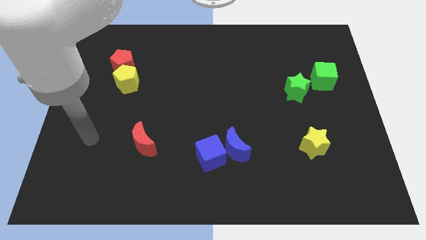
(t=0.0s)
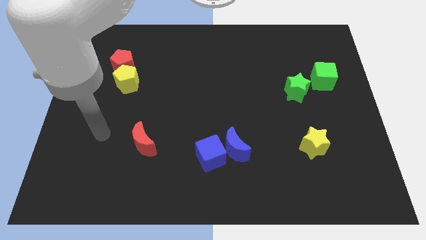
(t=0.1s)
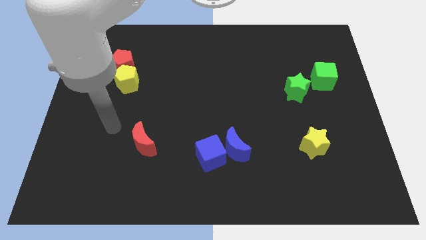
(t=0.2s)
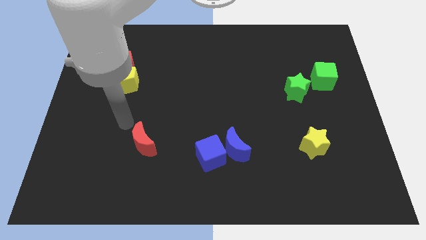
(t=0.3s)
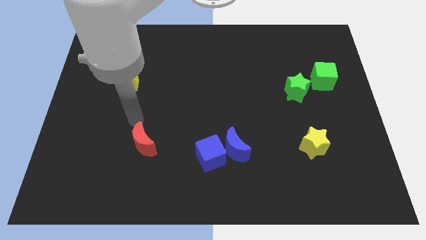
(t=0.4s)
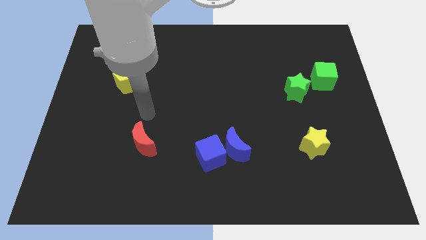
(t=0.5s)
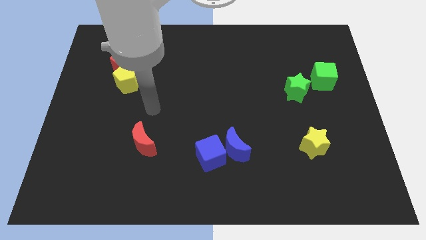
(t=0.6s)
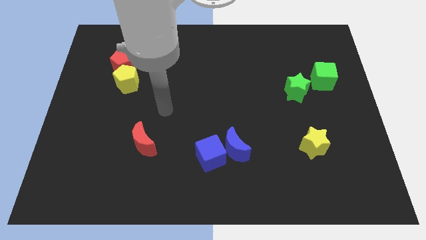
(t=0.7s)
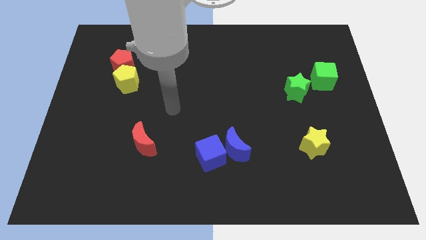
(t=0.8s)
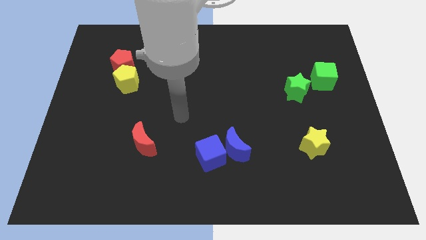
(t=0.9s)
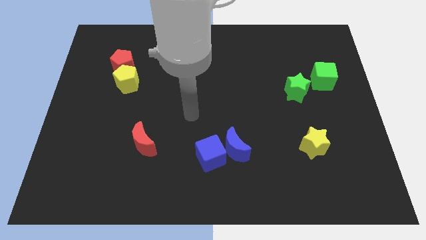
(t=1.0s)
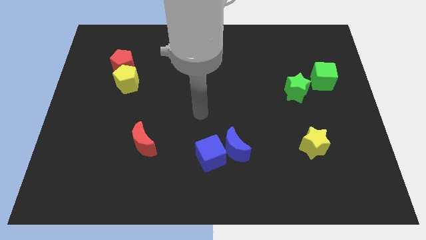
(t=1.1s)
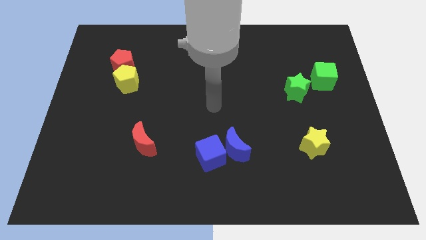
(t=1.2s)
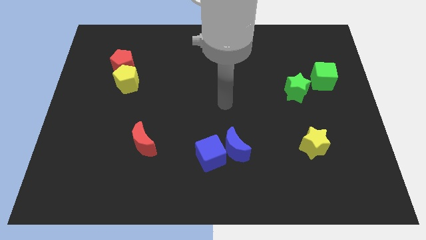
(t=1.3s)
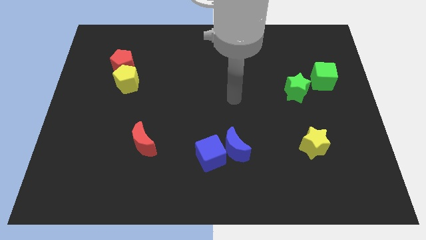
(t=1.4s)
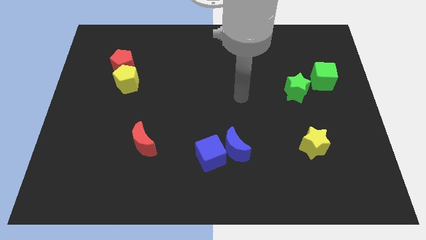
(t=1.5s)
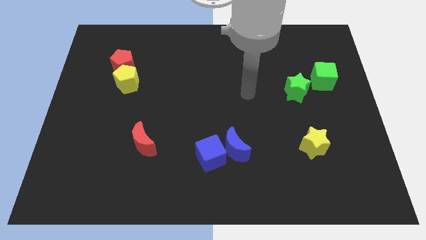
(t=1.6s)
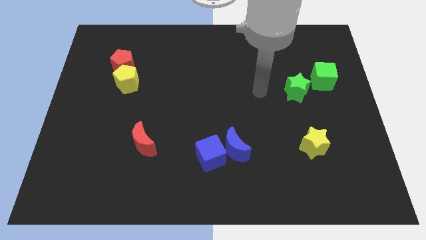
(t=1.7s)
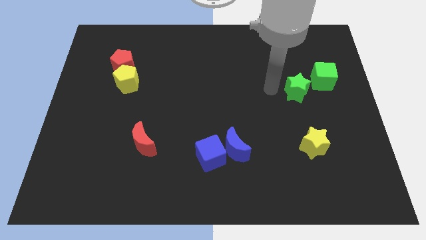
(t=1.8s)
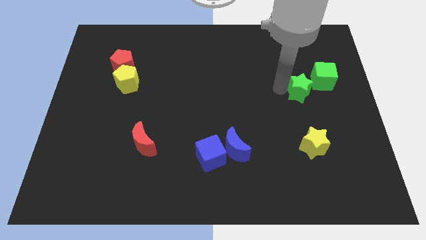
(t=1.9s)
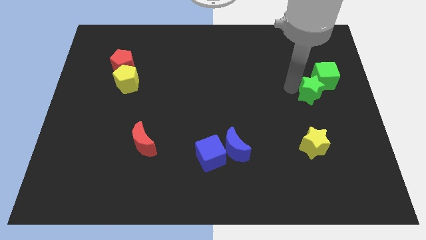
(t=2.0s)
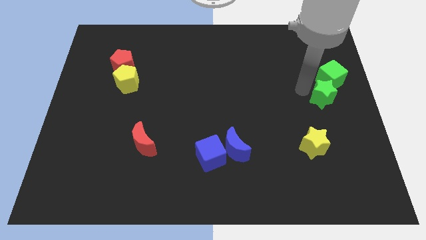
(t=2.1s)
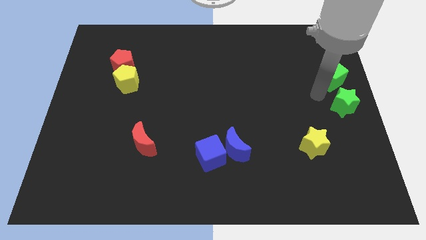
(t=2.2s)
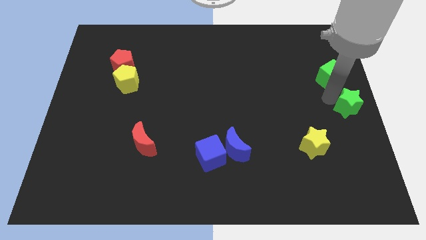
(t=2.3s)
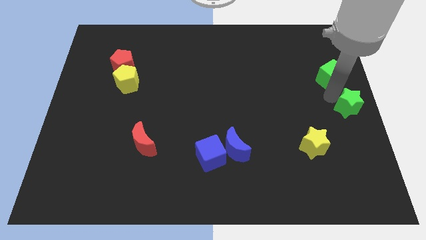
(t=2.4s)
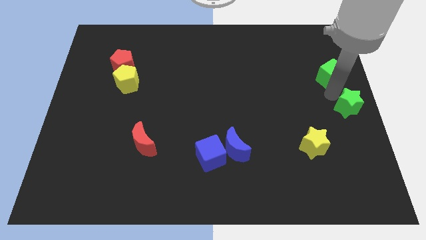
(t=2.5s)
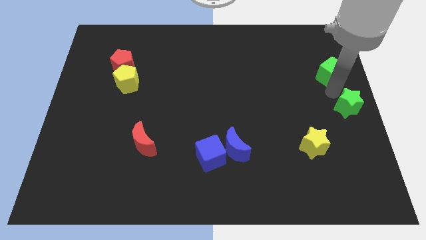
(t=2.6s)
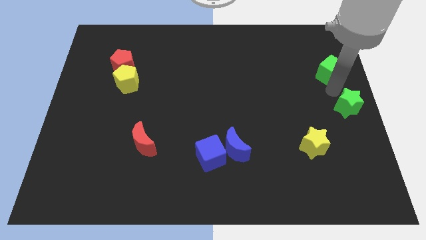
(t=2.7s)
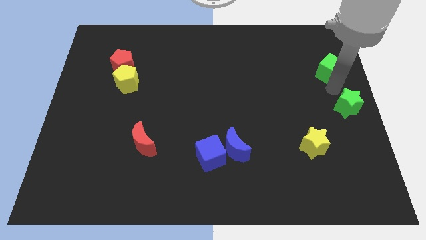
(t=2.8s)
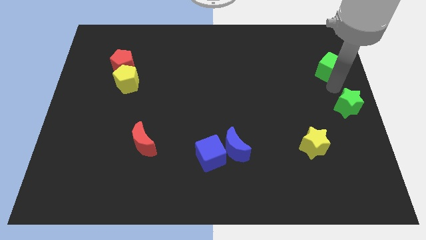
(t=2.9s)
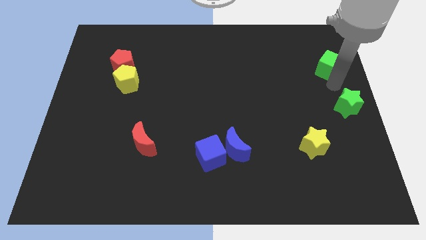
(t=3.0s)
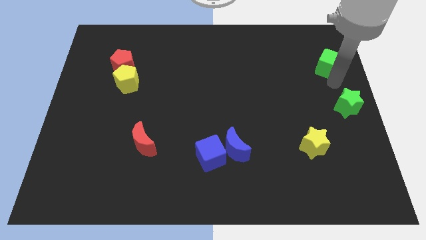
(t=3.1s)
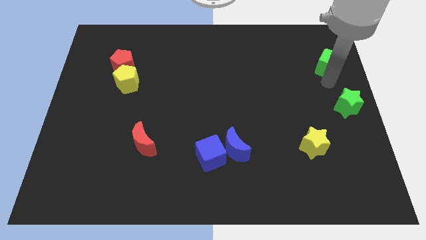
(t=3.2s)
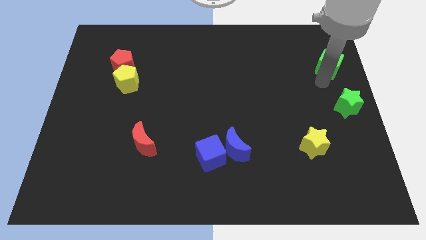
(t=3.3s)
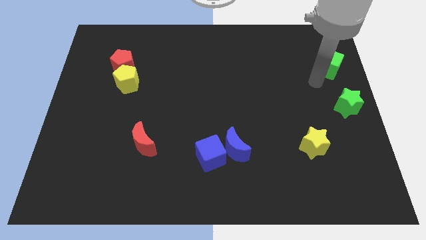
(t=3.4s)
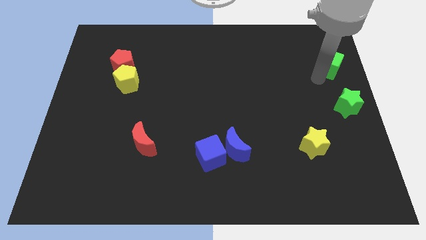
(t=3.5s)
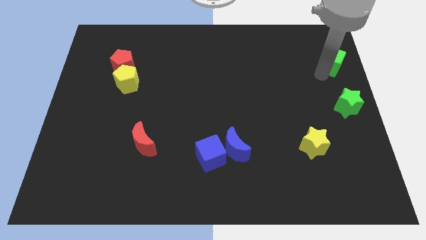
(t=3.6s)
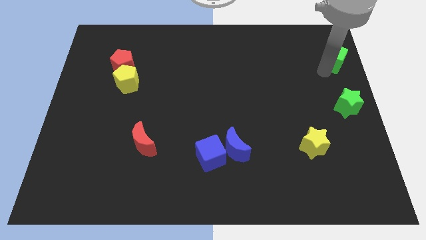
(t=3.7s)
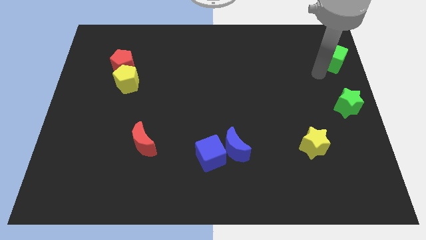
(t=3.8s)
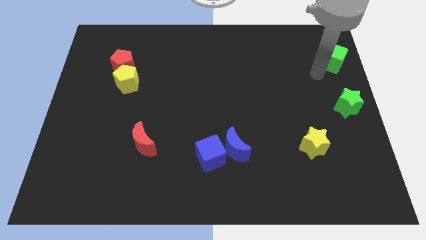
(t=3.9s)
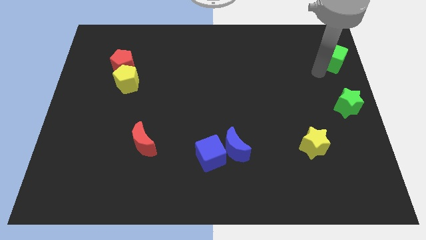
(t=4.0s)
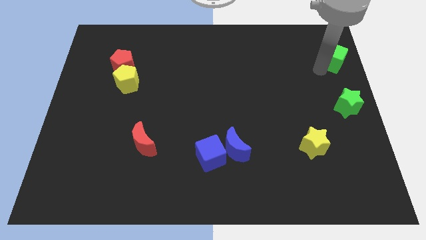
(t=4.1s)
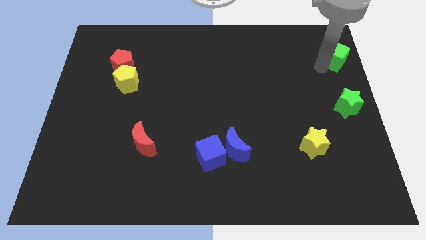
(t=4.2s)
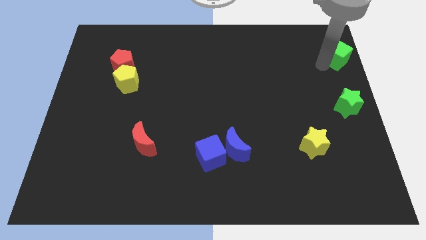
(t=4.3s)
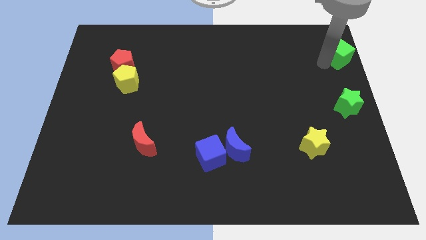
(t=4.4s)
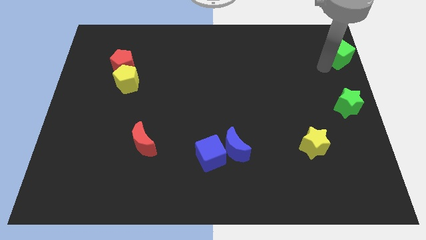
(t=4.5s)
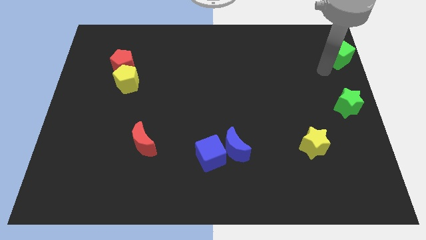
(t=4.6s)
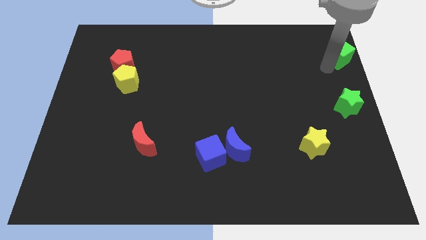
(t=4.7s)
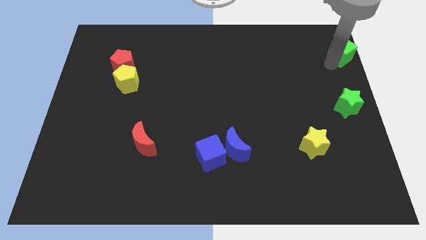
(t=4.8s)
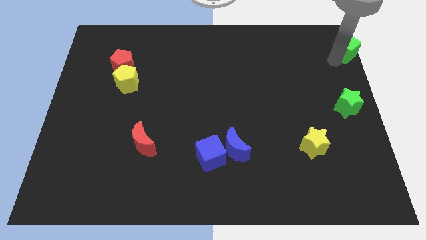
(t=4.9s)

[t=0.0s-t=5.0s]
move the green cube to the upper right corner

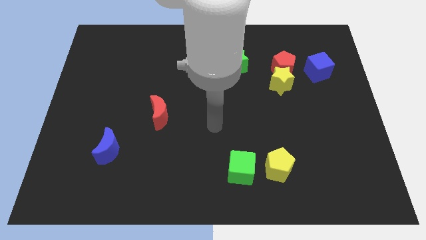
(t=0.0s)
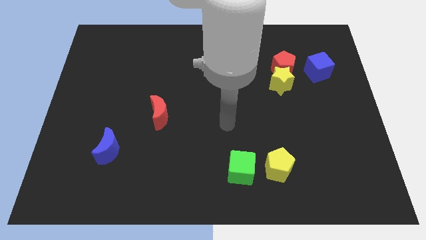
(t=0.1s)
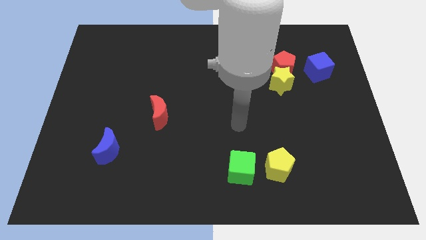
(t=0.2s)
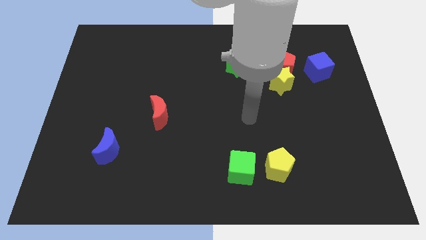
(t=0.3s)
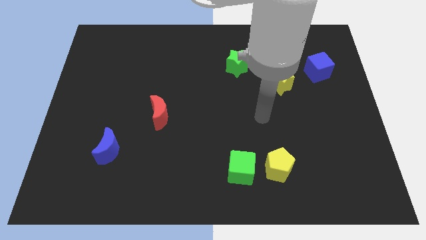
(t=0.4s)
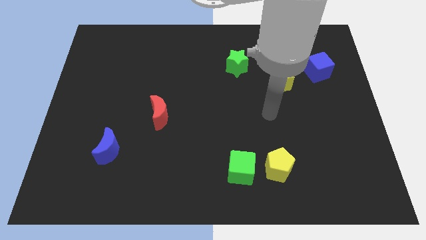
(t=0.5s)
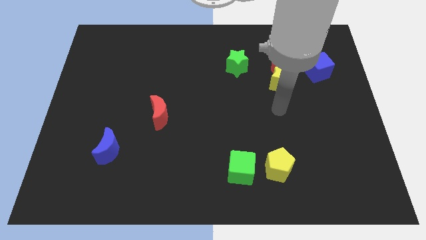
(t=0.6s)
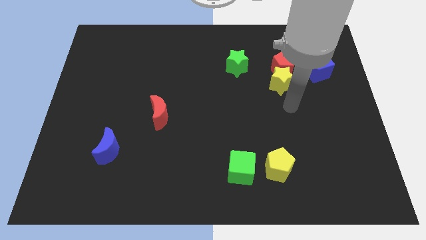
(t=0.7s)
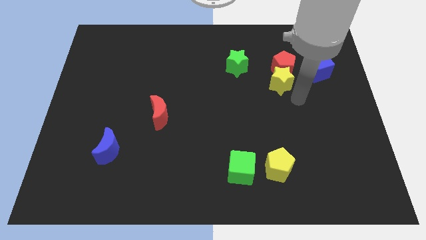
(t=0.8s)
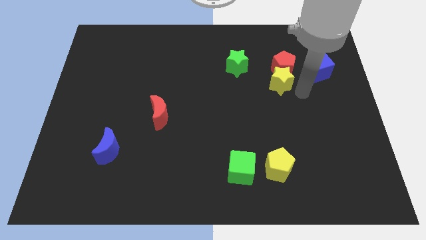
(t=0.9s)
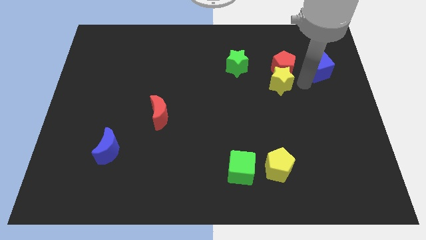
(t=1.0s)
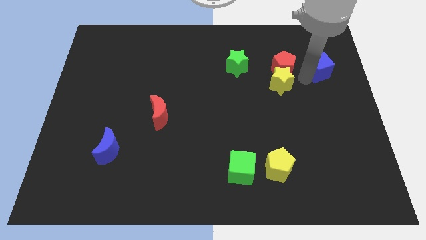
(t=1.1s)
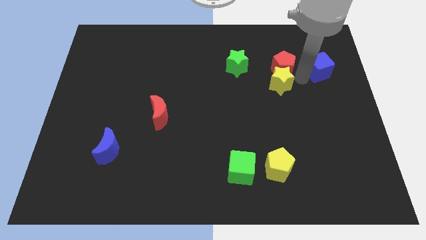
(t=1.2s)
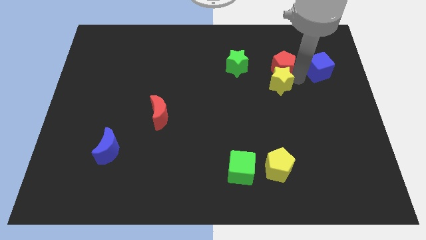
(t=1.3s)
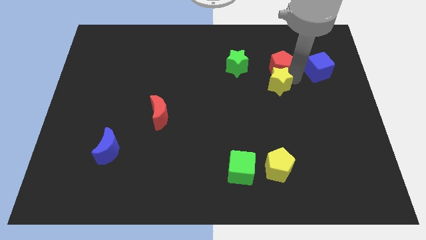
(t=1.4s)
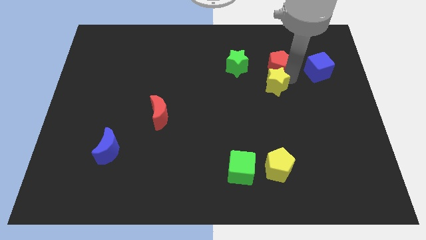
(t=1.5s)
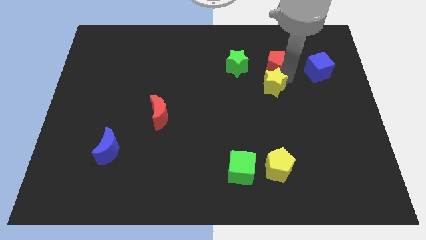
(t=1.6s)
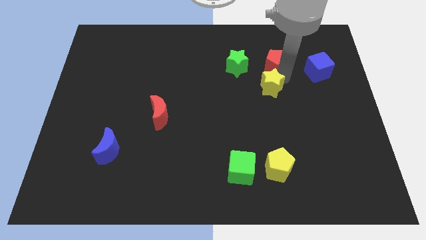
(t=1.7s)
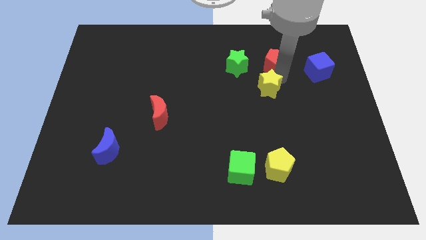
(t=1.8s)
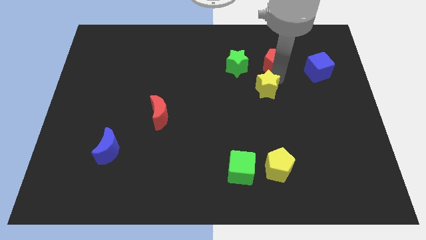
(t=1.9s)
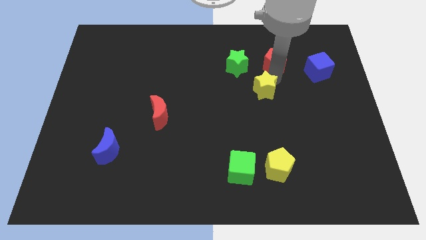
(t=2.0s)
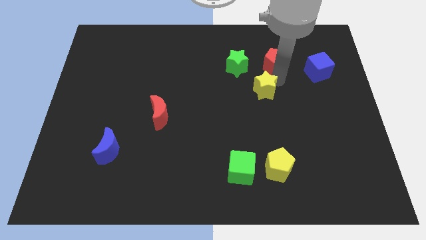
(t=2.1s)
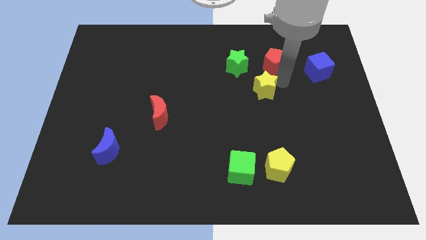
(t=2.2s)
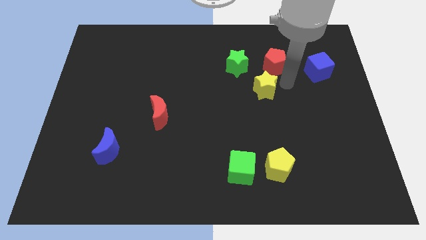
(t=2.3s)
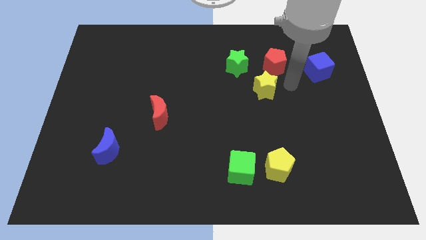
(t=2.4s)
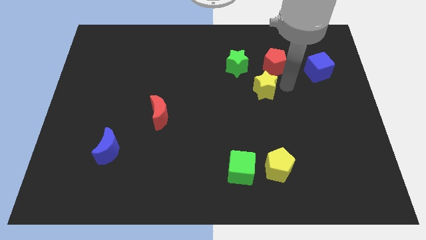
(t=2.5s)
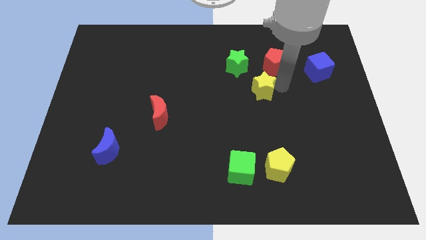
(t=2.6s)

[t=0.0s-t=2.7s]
push the yellow star to the center
